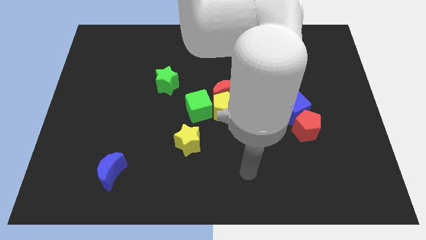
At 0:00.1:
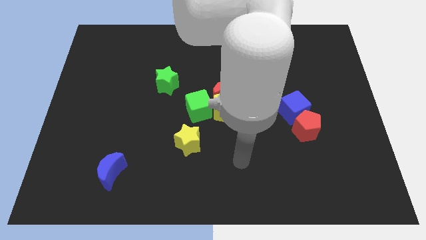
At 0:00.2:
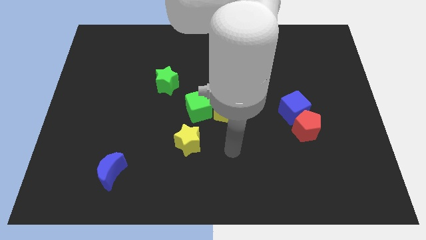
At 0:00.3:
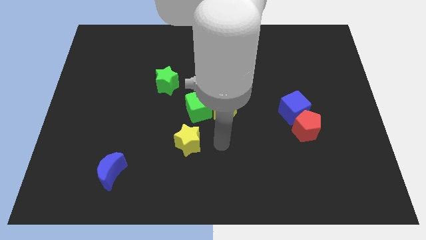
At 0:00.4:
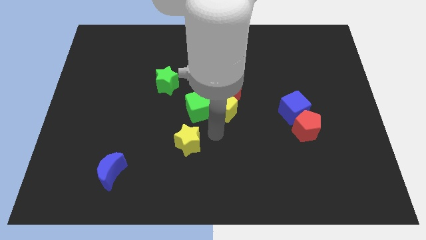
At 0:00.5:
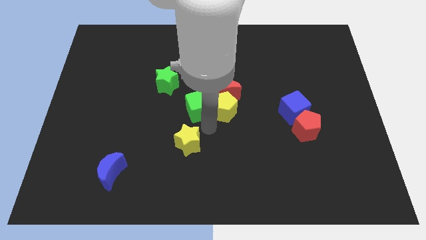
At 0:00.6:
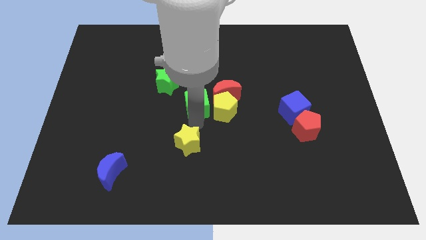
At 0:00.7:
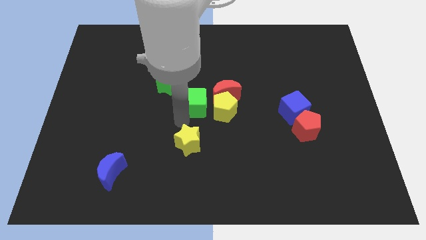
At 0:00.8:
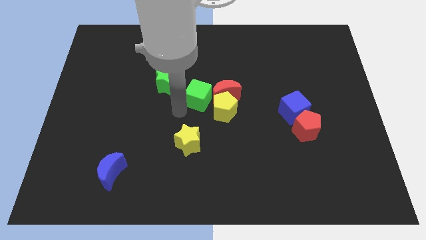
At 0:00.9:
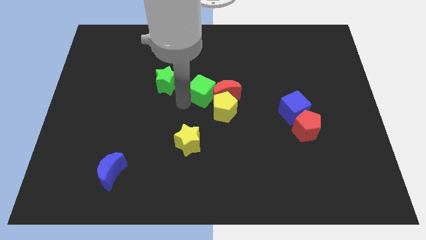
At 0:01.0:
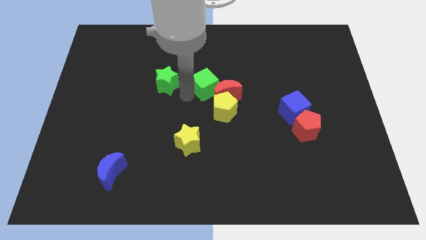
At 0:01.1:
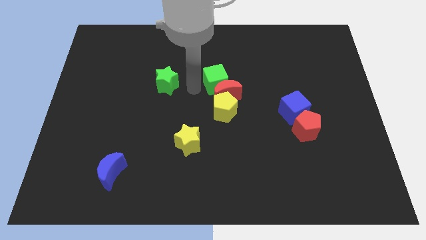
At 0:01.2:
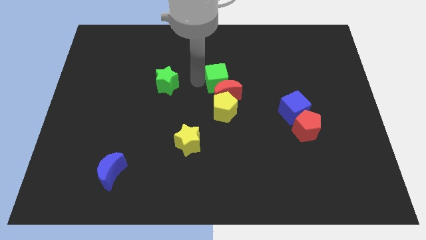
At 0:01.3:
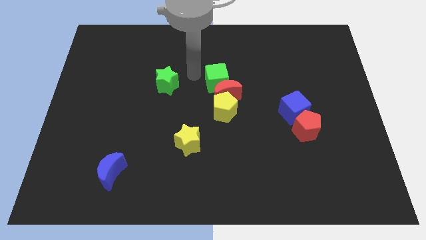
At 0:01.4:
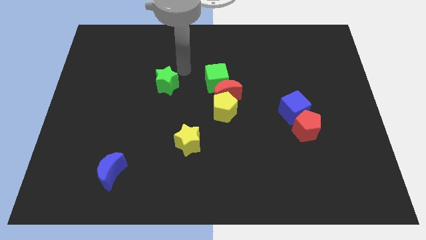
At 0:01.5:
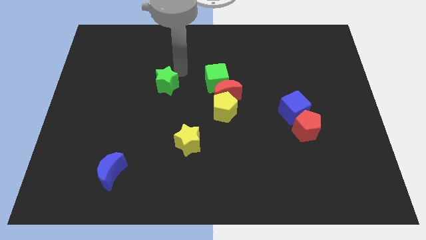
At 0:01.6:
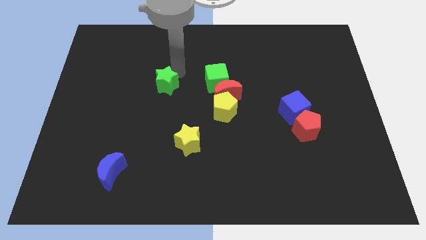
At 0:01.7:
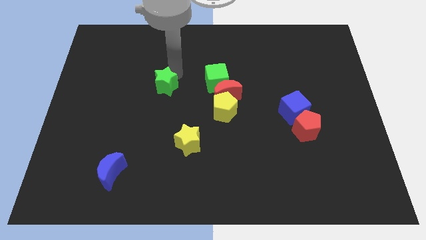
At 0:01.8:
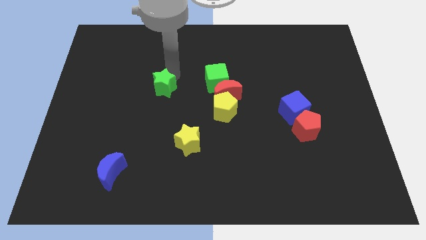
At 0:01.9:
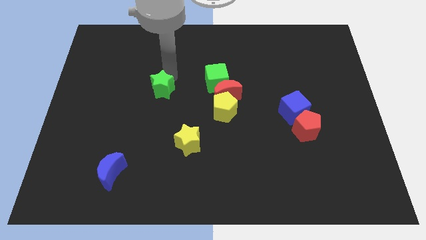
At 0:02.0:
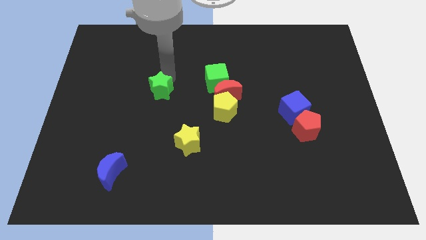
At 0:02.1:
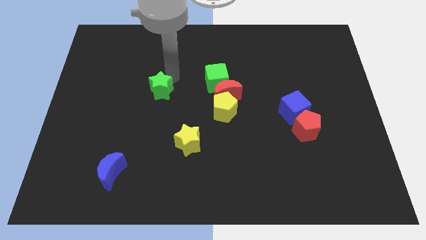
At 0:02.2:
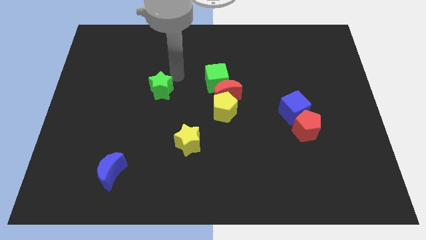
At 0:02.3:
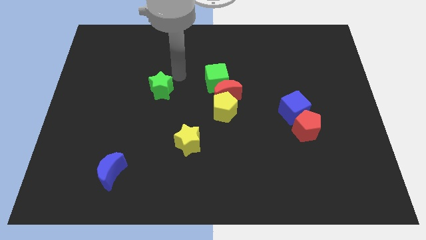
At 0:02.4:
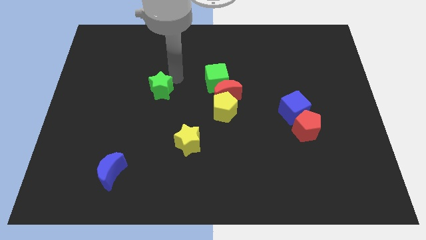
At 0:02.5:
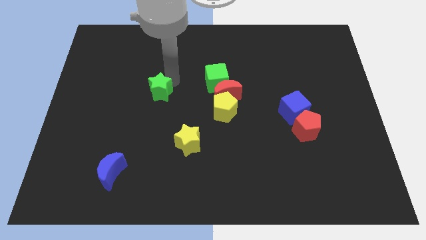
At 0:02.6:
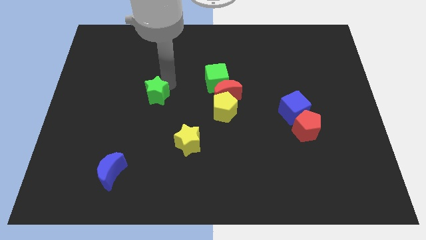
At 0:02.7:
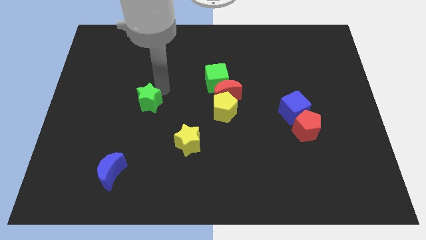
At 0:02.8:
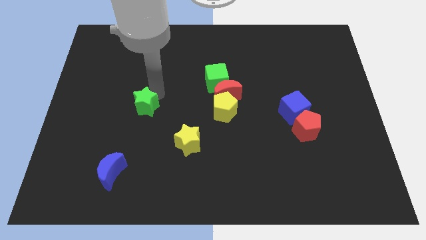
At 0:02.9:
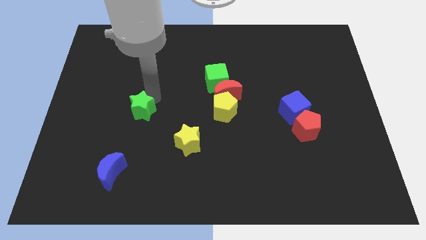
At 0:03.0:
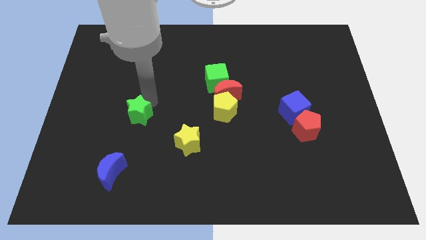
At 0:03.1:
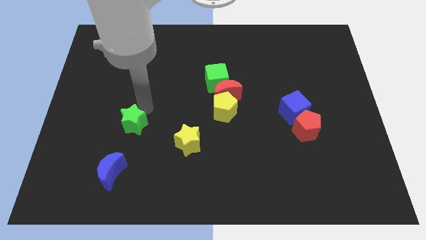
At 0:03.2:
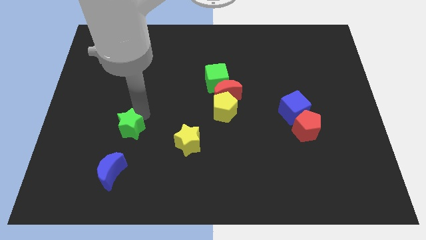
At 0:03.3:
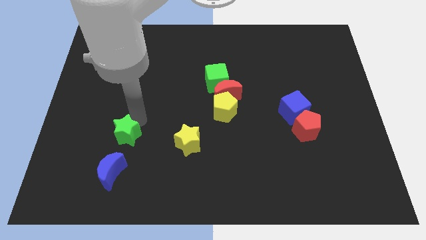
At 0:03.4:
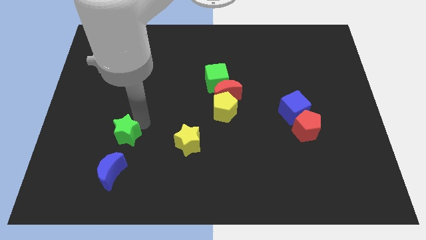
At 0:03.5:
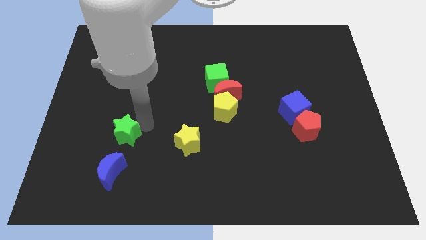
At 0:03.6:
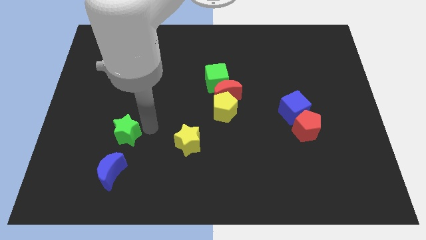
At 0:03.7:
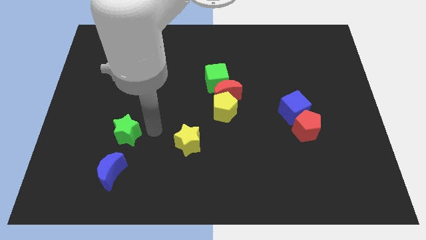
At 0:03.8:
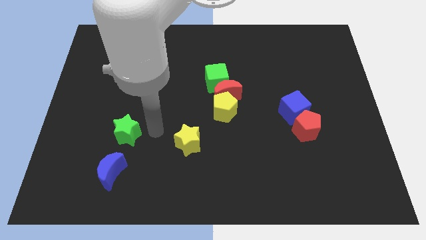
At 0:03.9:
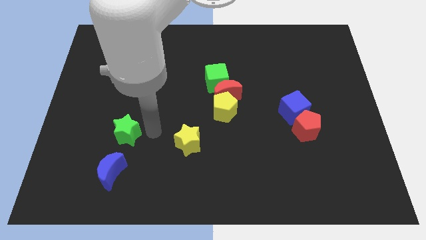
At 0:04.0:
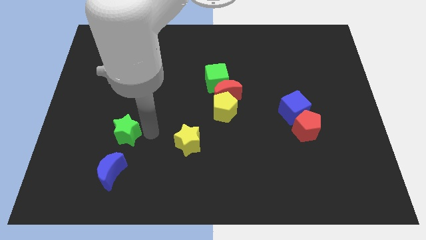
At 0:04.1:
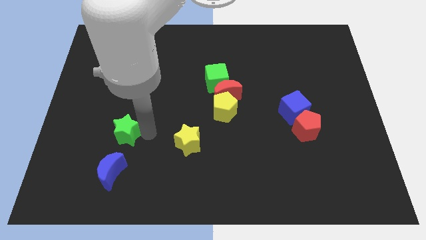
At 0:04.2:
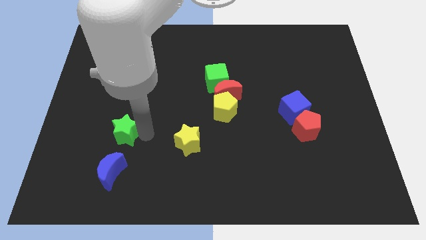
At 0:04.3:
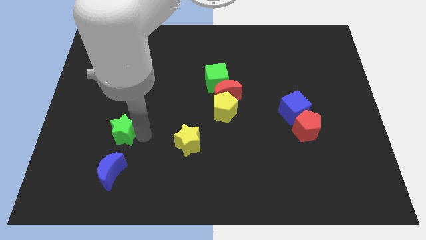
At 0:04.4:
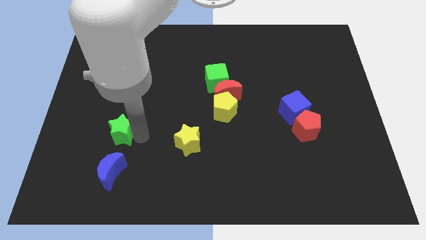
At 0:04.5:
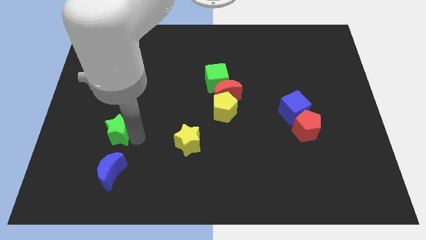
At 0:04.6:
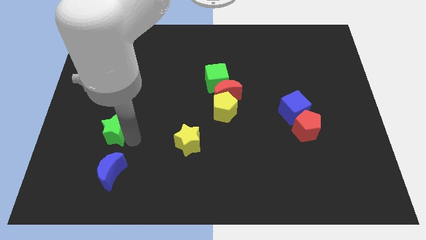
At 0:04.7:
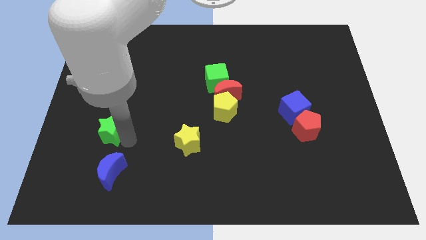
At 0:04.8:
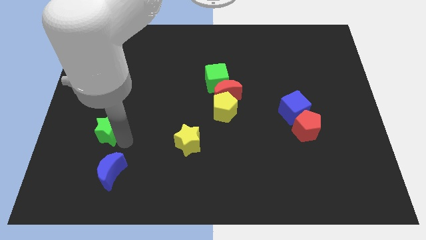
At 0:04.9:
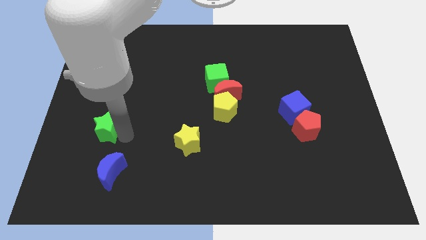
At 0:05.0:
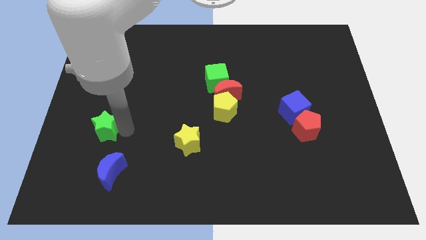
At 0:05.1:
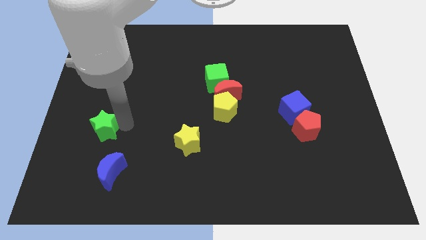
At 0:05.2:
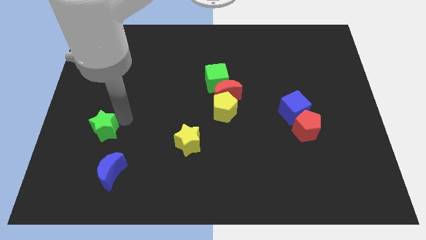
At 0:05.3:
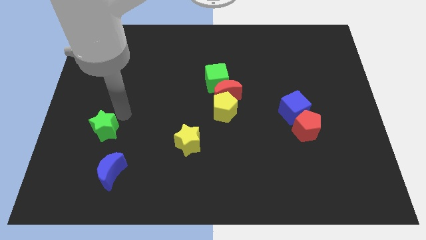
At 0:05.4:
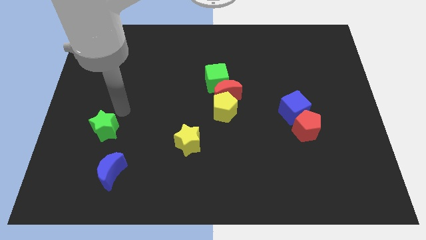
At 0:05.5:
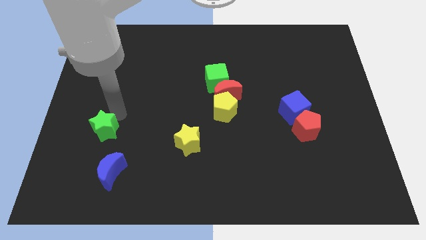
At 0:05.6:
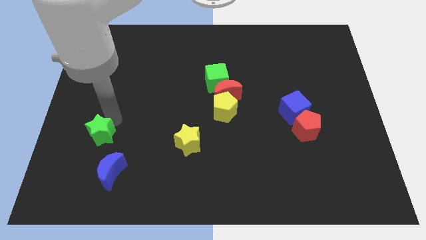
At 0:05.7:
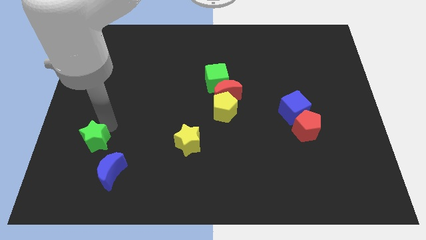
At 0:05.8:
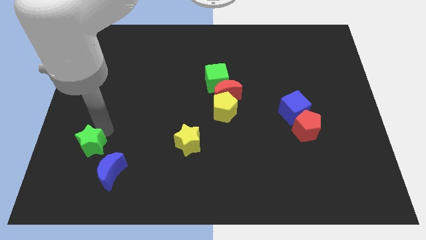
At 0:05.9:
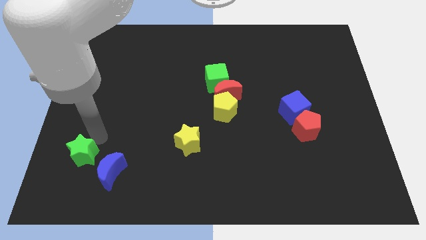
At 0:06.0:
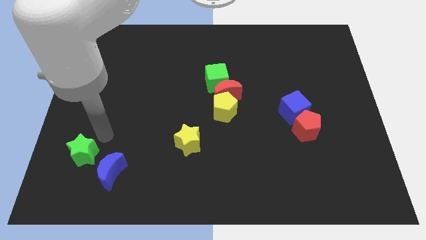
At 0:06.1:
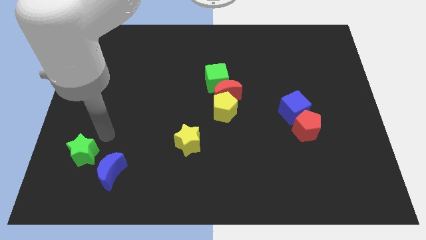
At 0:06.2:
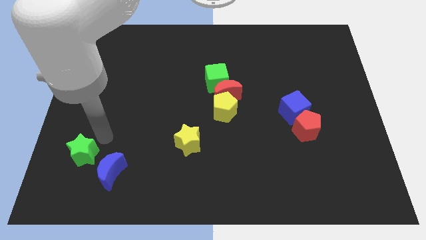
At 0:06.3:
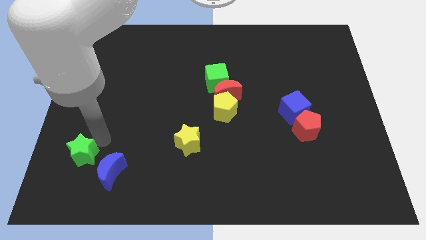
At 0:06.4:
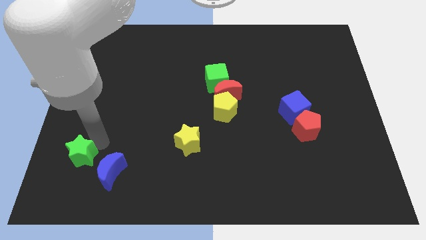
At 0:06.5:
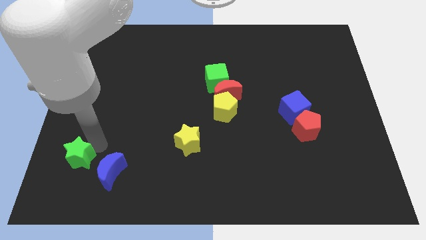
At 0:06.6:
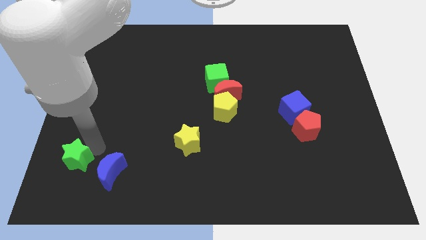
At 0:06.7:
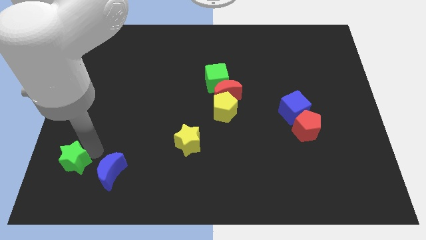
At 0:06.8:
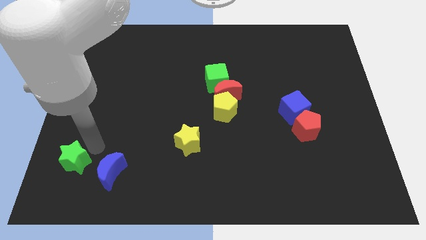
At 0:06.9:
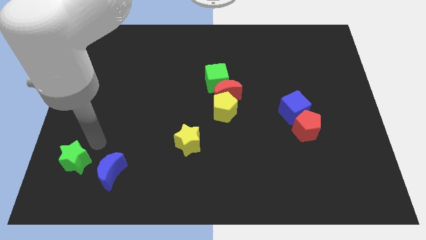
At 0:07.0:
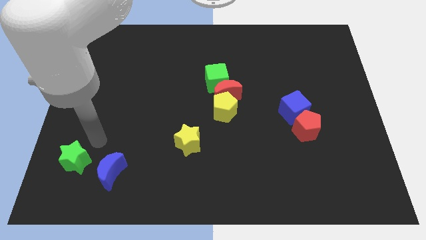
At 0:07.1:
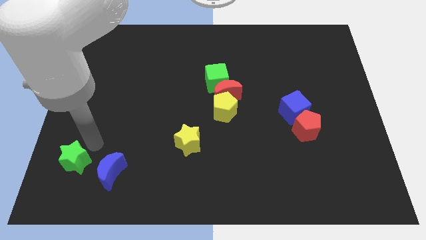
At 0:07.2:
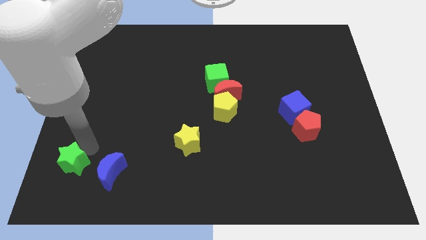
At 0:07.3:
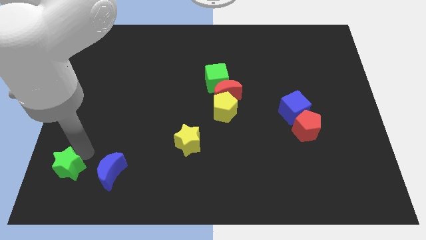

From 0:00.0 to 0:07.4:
put the green star to the bottom left of the board
